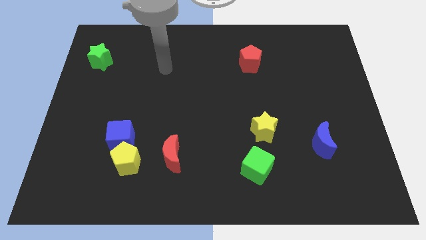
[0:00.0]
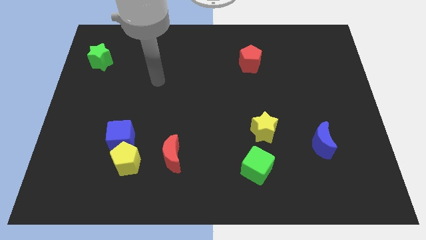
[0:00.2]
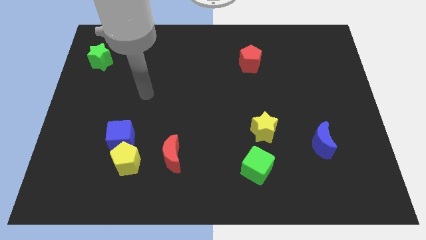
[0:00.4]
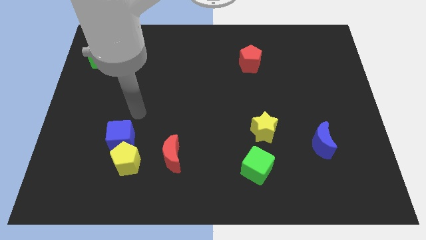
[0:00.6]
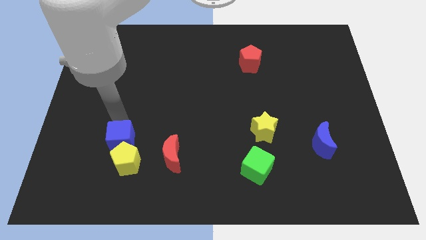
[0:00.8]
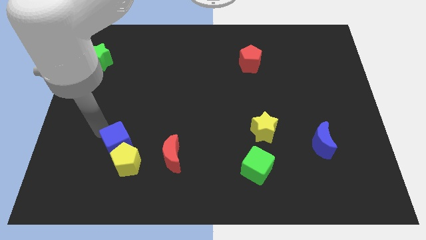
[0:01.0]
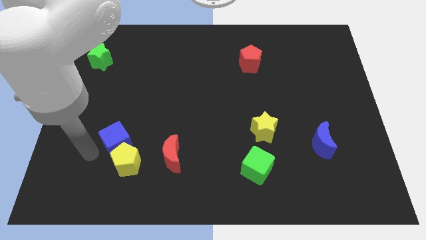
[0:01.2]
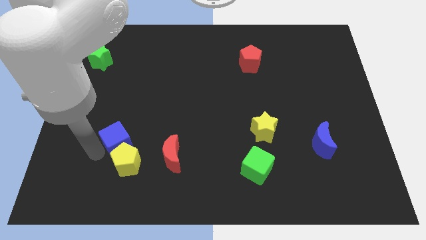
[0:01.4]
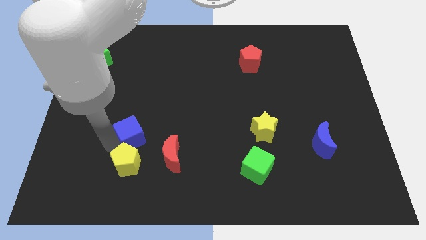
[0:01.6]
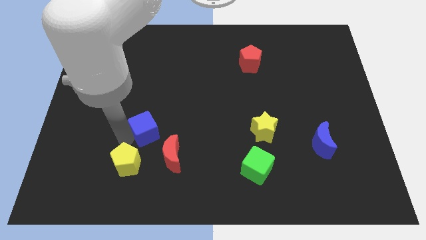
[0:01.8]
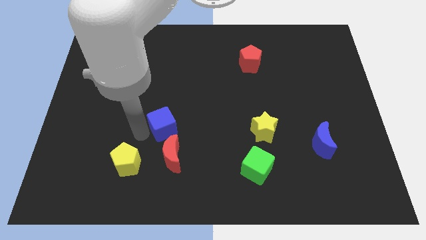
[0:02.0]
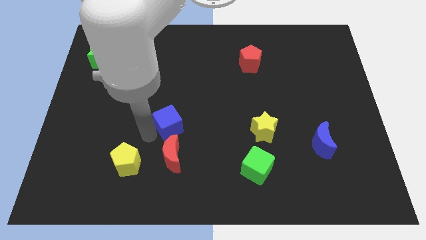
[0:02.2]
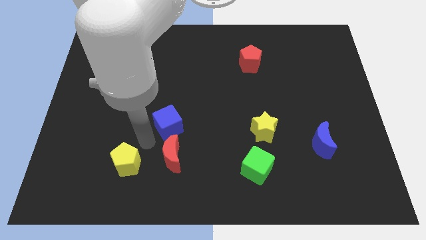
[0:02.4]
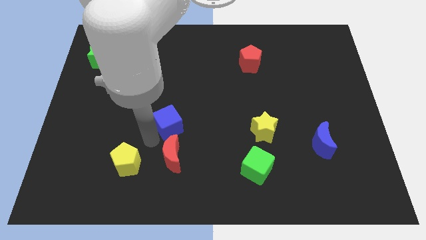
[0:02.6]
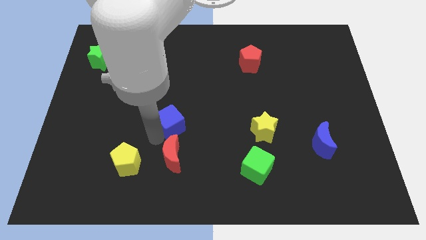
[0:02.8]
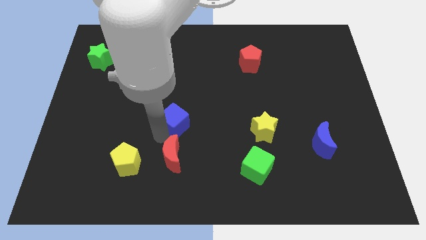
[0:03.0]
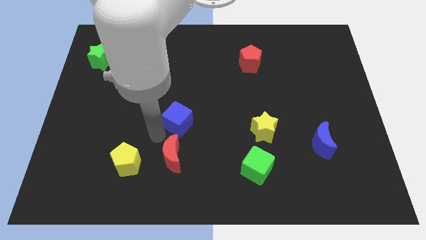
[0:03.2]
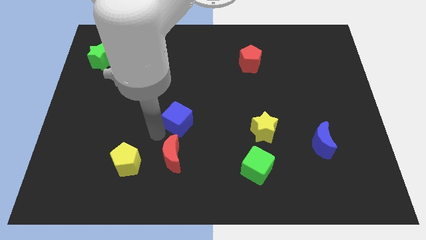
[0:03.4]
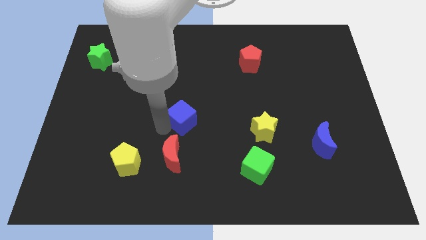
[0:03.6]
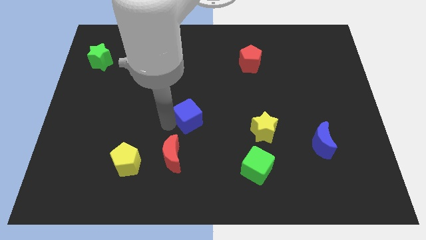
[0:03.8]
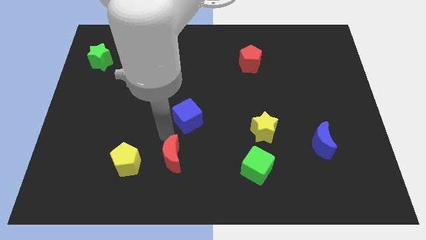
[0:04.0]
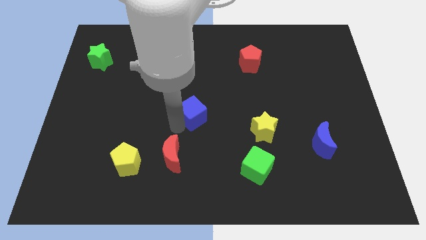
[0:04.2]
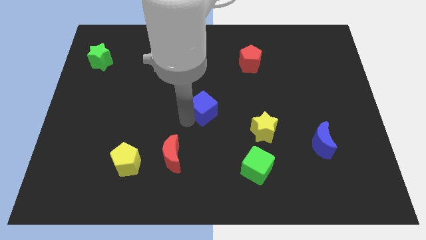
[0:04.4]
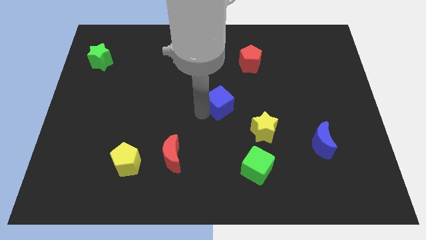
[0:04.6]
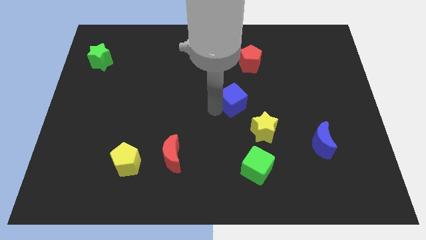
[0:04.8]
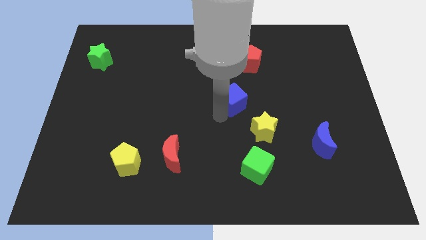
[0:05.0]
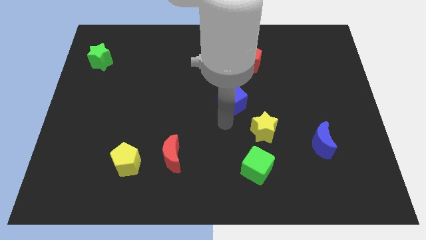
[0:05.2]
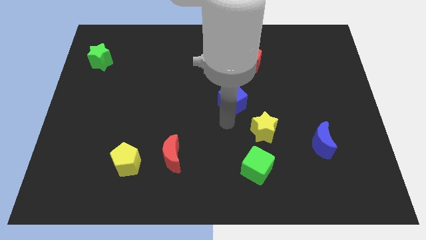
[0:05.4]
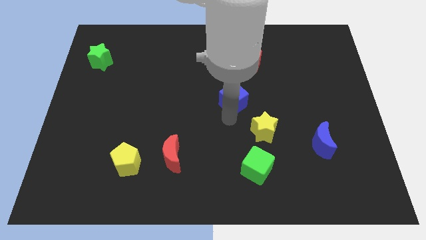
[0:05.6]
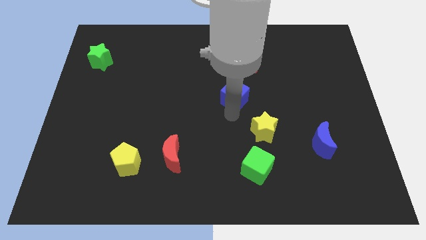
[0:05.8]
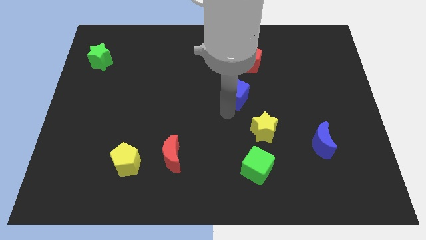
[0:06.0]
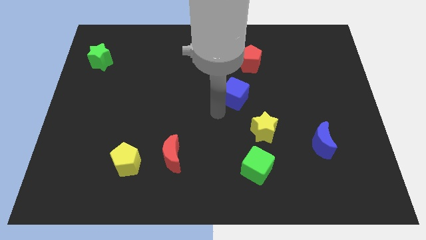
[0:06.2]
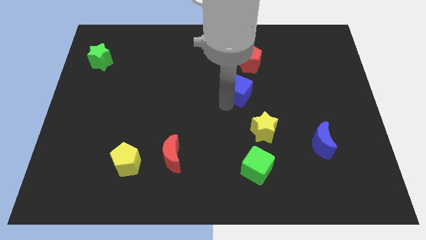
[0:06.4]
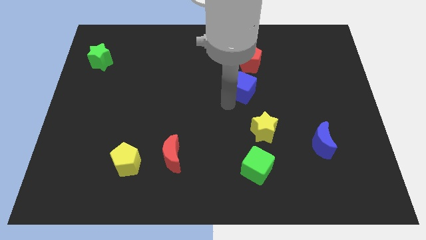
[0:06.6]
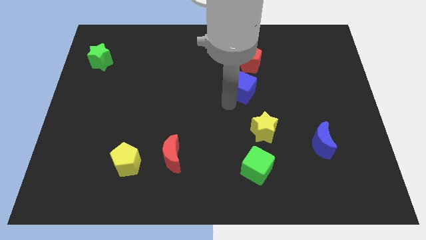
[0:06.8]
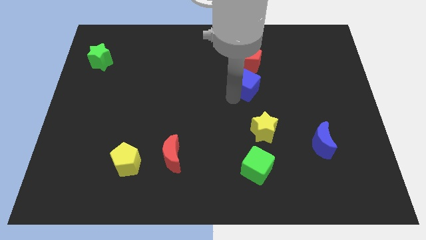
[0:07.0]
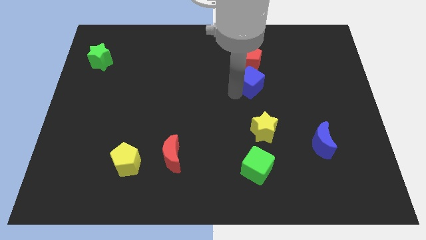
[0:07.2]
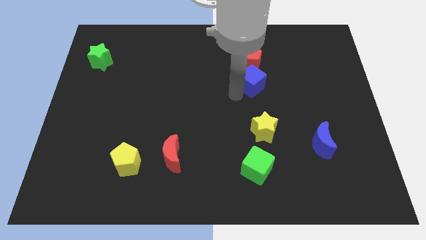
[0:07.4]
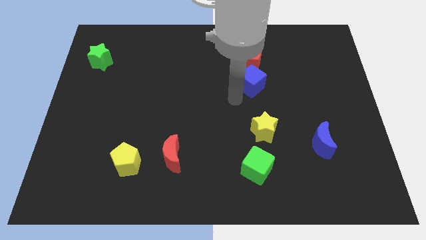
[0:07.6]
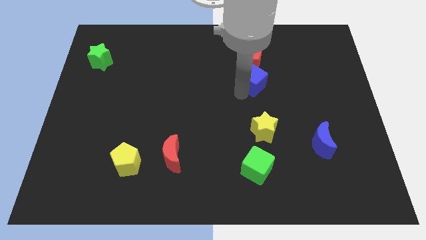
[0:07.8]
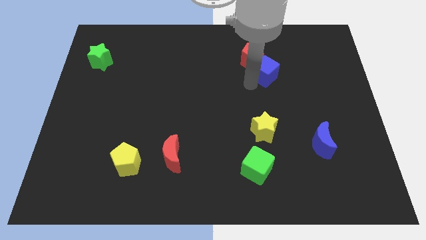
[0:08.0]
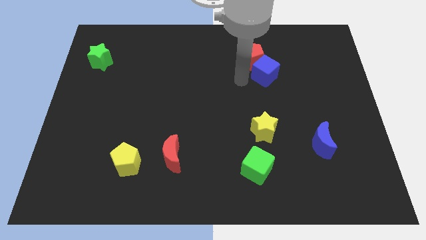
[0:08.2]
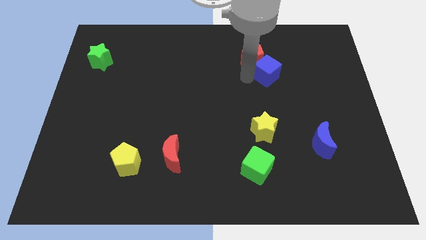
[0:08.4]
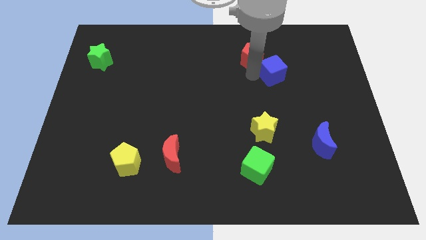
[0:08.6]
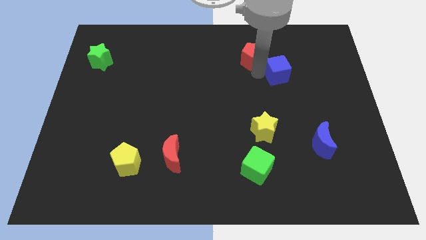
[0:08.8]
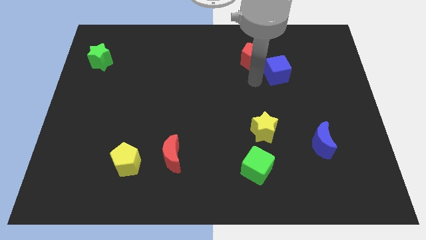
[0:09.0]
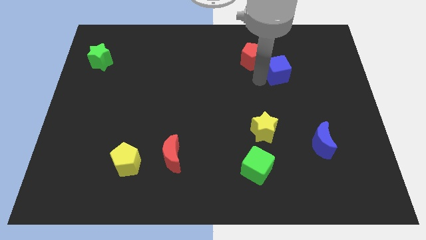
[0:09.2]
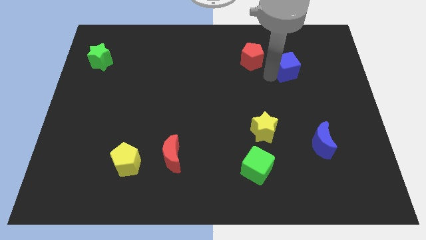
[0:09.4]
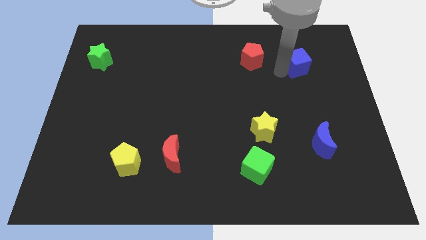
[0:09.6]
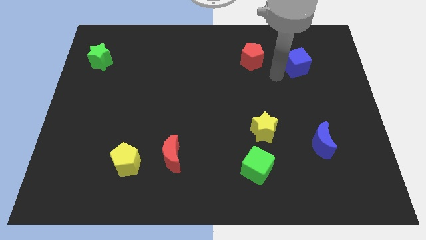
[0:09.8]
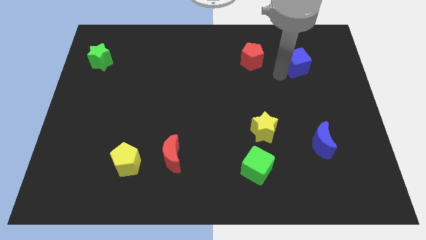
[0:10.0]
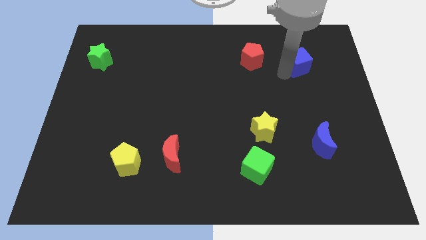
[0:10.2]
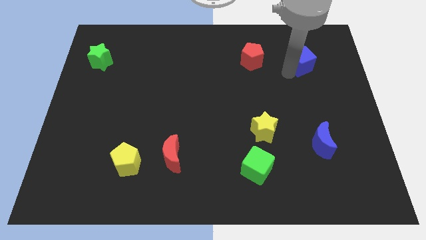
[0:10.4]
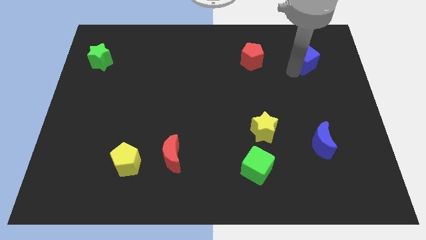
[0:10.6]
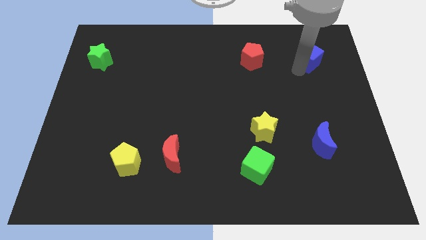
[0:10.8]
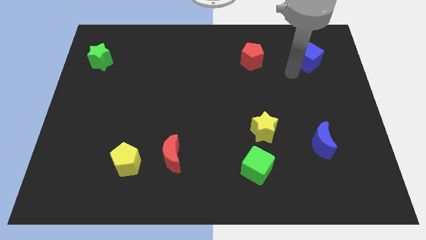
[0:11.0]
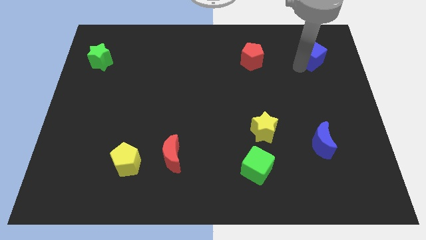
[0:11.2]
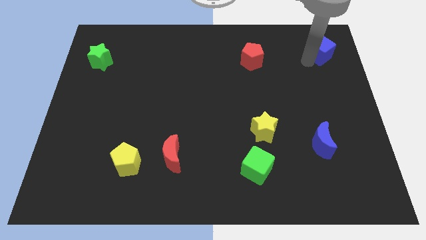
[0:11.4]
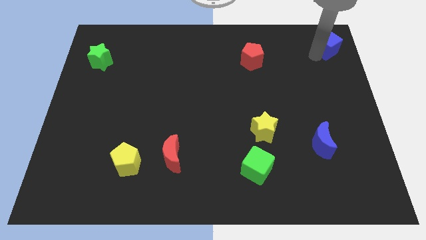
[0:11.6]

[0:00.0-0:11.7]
move the blue cube to the top right

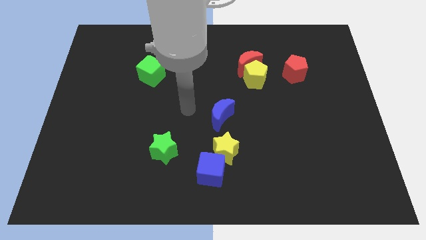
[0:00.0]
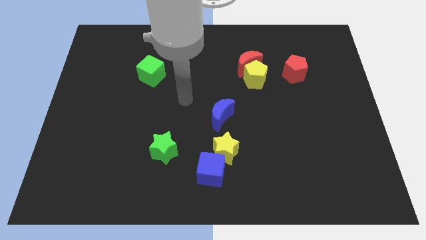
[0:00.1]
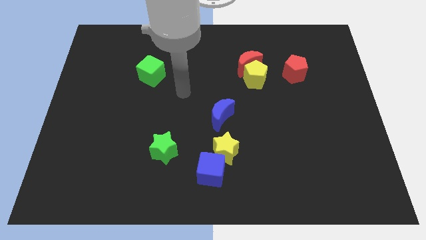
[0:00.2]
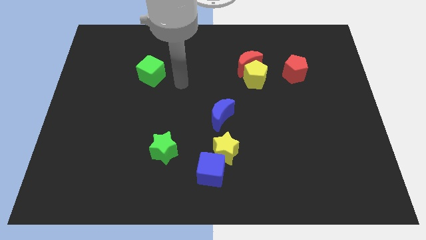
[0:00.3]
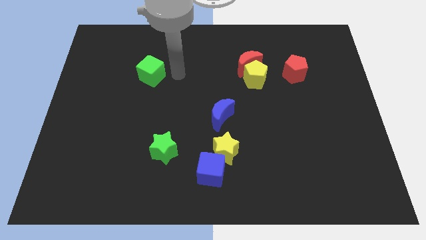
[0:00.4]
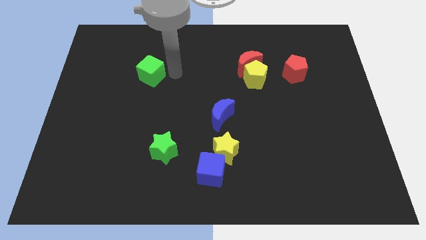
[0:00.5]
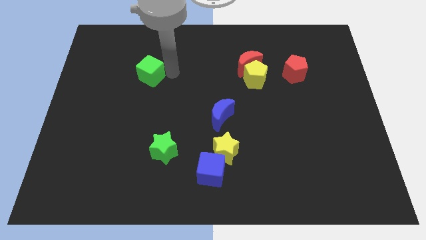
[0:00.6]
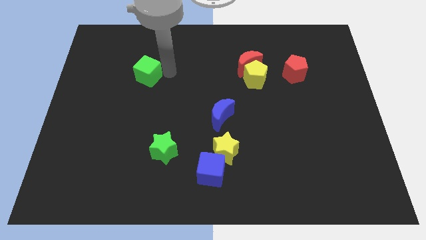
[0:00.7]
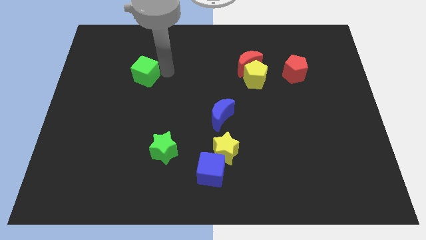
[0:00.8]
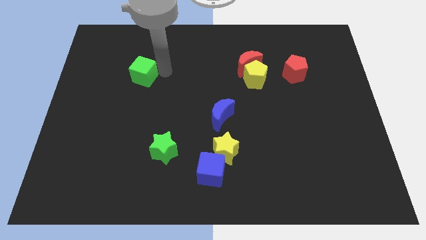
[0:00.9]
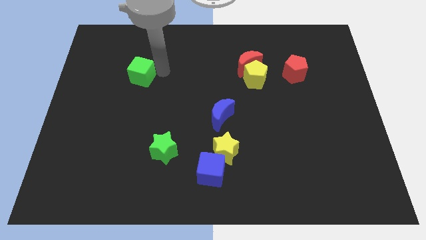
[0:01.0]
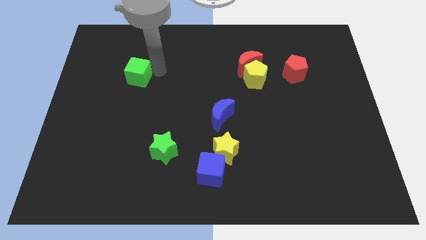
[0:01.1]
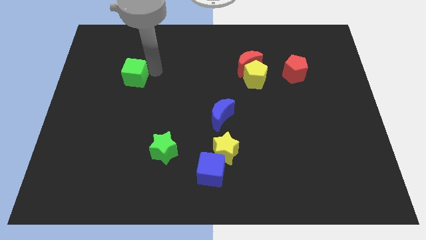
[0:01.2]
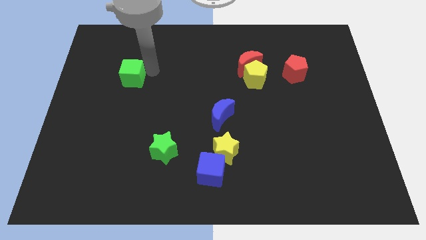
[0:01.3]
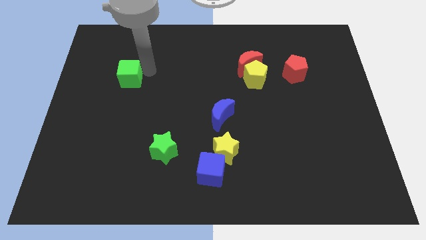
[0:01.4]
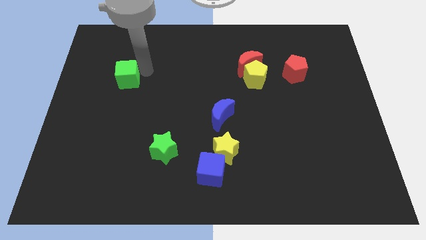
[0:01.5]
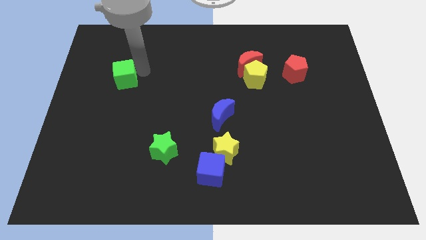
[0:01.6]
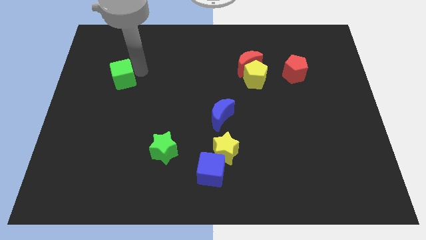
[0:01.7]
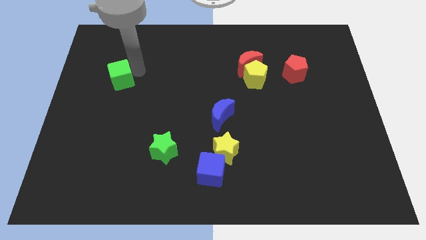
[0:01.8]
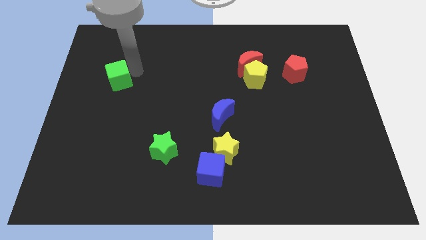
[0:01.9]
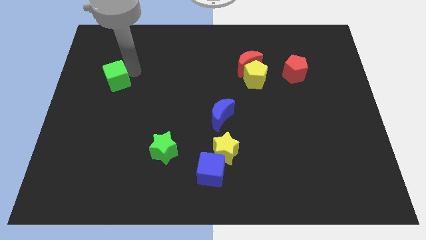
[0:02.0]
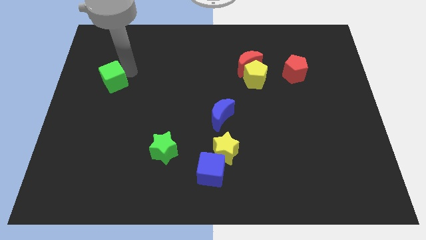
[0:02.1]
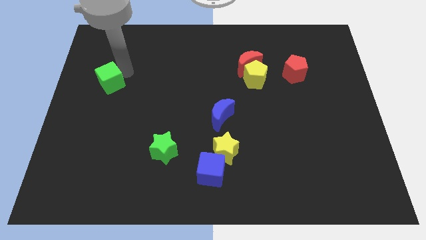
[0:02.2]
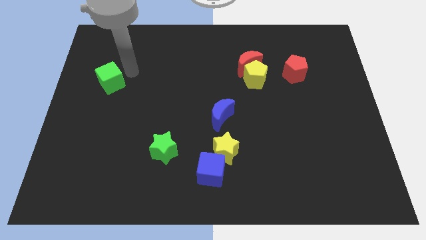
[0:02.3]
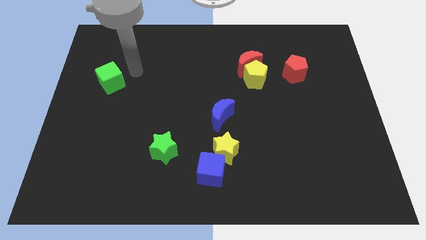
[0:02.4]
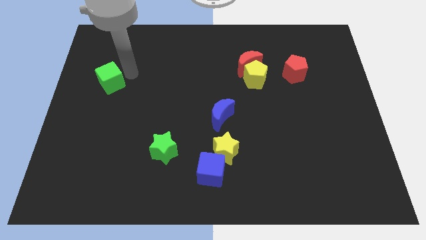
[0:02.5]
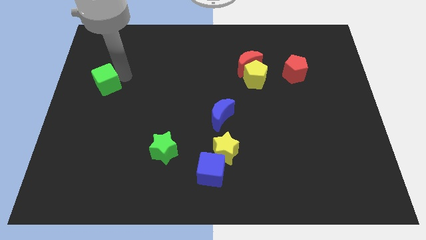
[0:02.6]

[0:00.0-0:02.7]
move the green cube to the left side
